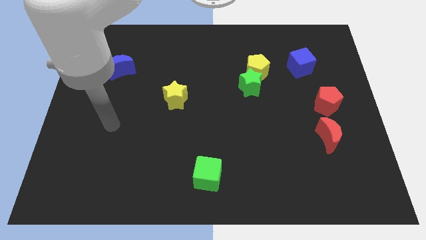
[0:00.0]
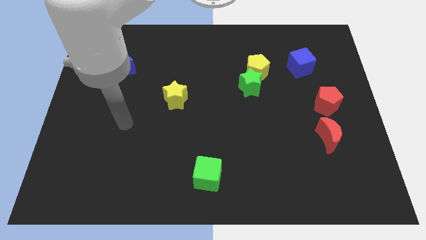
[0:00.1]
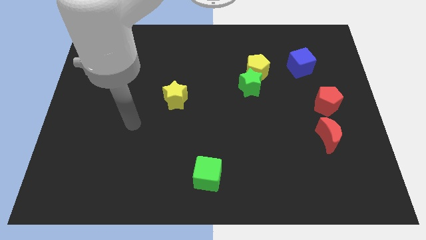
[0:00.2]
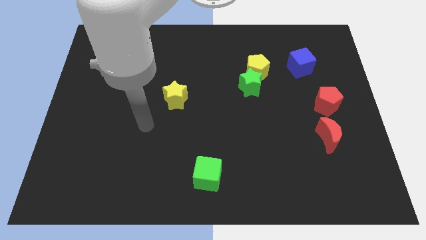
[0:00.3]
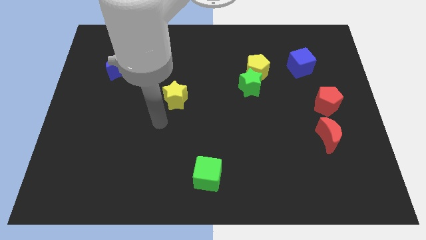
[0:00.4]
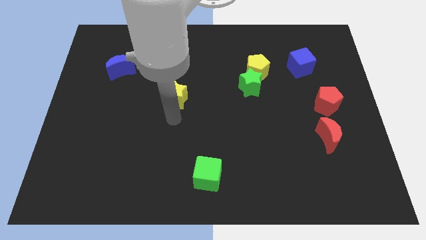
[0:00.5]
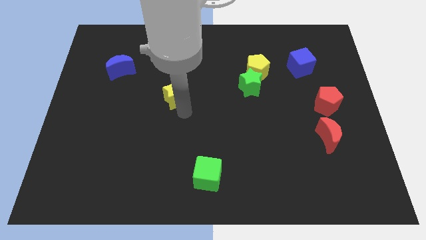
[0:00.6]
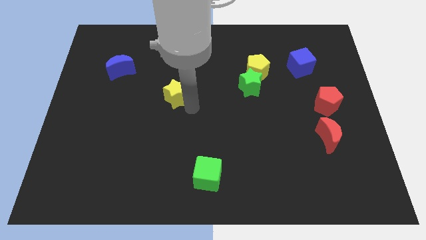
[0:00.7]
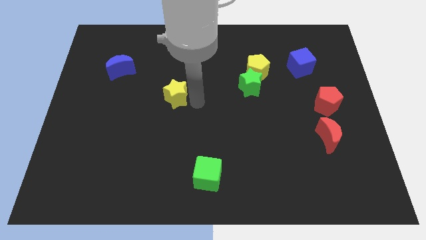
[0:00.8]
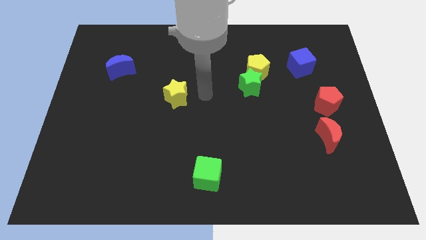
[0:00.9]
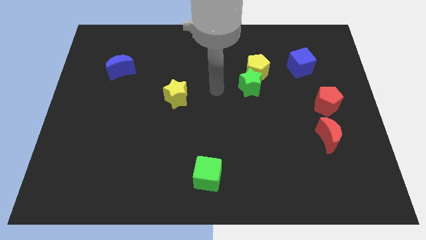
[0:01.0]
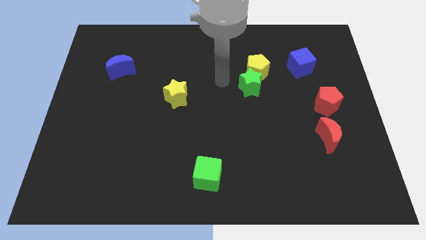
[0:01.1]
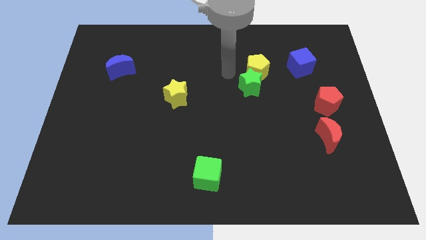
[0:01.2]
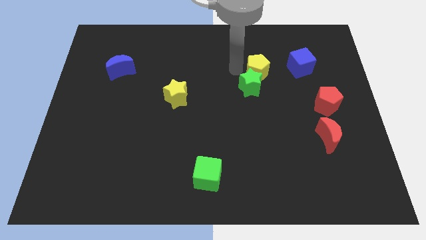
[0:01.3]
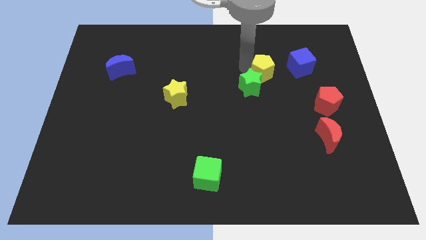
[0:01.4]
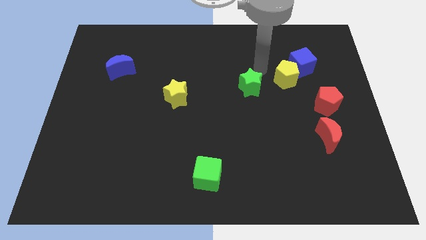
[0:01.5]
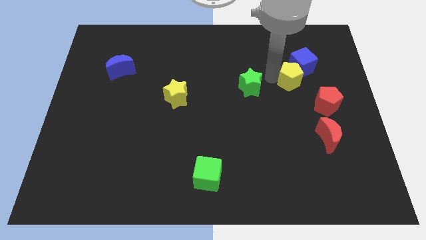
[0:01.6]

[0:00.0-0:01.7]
separate the green star from the yellow pentagon

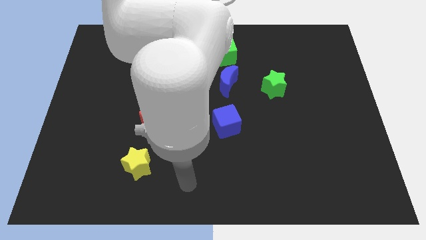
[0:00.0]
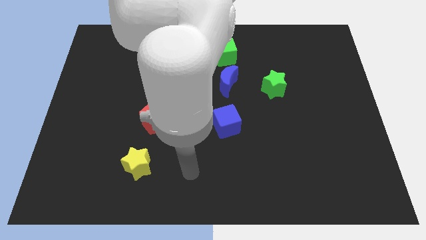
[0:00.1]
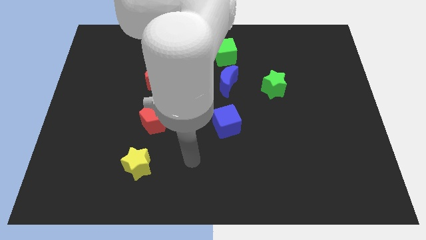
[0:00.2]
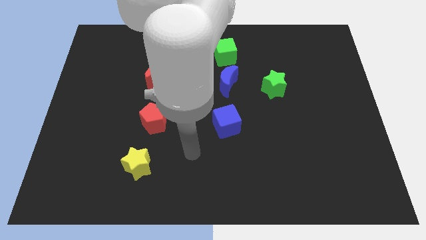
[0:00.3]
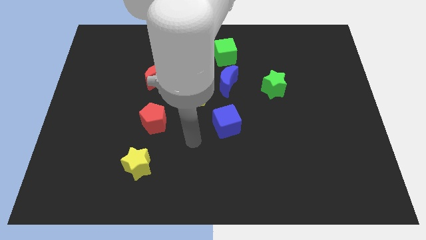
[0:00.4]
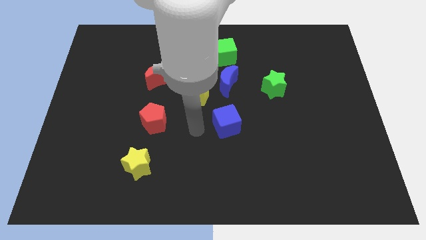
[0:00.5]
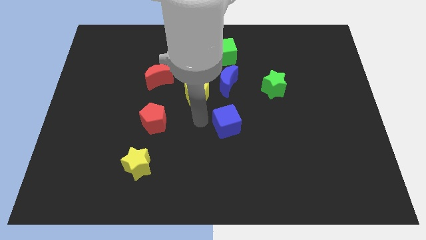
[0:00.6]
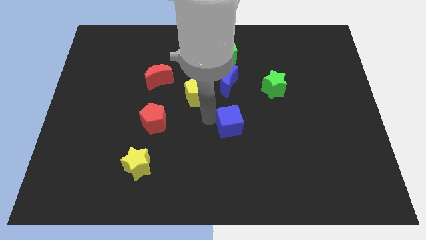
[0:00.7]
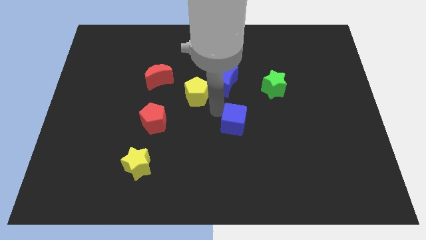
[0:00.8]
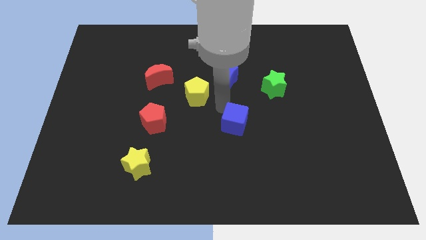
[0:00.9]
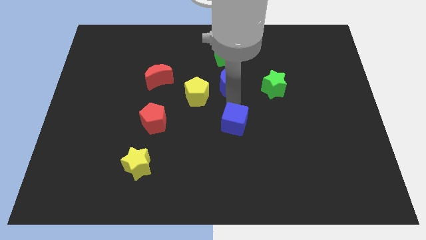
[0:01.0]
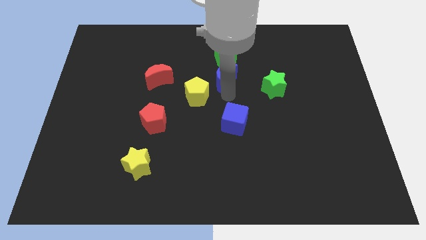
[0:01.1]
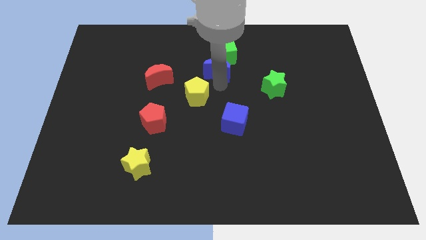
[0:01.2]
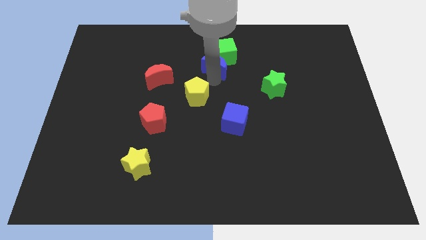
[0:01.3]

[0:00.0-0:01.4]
pull the yellow pentagon apart from the blue moon

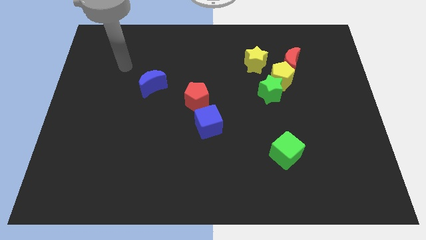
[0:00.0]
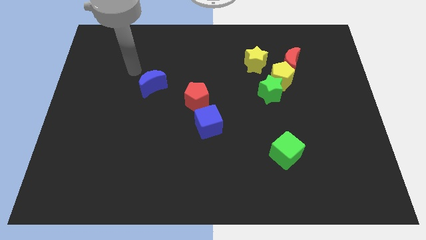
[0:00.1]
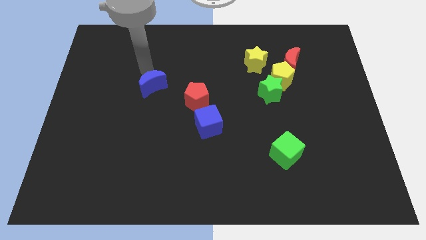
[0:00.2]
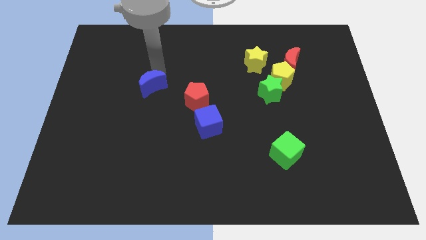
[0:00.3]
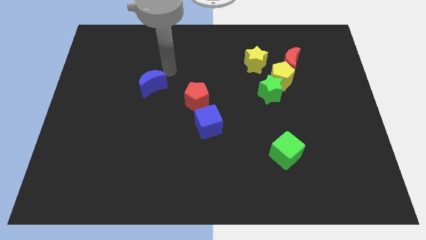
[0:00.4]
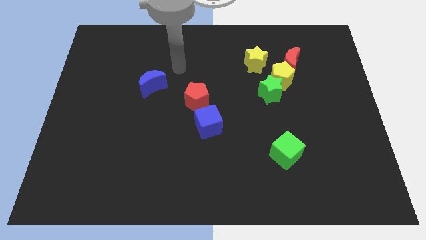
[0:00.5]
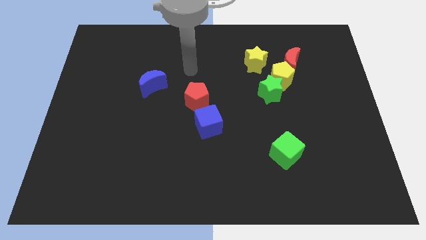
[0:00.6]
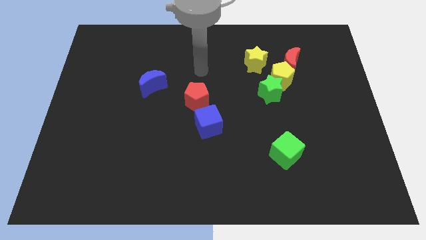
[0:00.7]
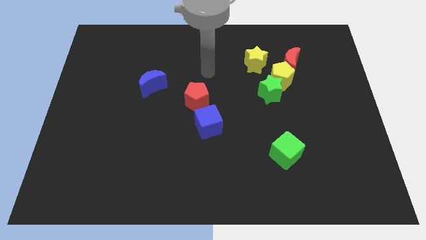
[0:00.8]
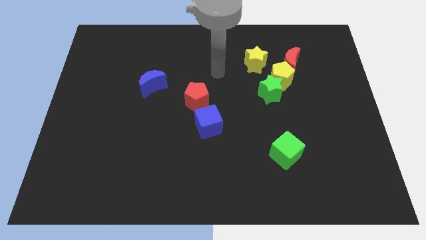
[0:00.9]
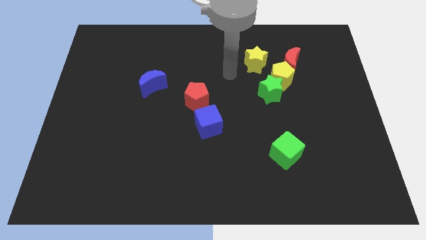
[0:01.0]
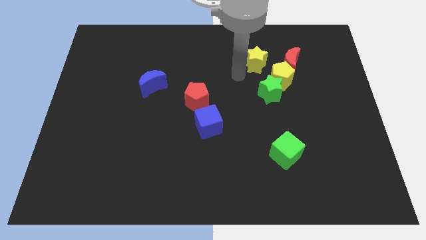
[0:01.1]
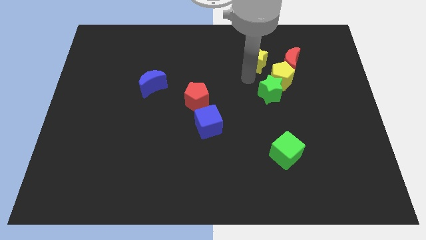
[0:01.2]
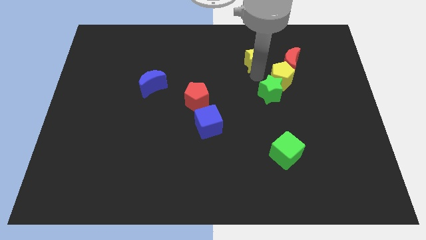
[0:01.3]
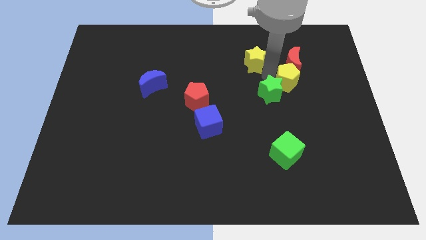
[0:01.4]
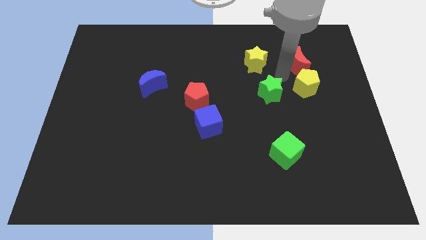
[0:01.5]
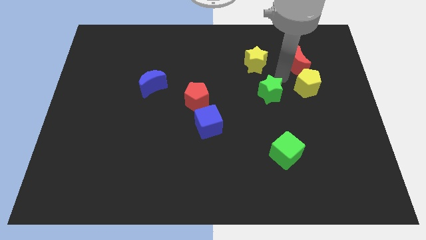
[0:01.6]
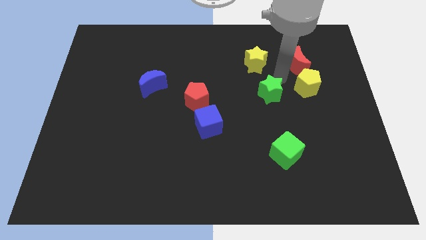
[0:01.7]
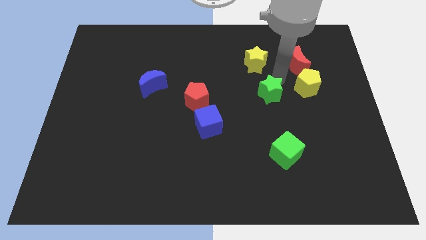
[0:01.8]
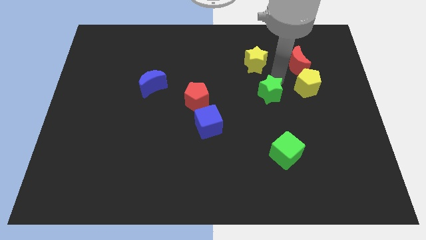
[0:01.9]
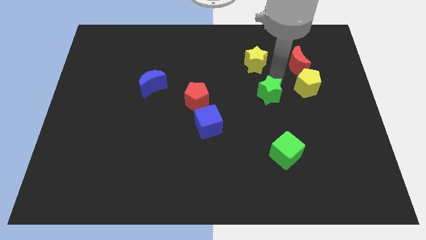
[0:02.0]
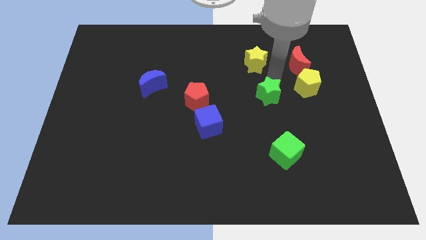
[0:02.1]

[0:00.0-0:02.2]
pull the green star apart from the yellow pentagon

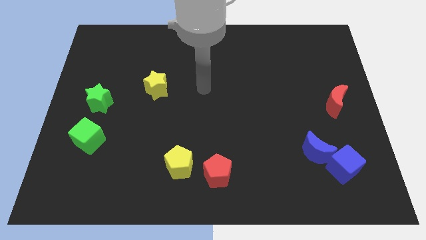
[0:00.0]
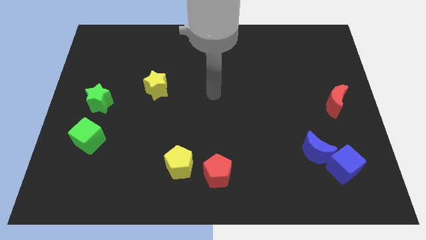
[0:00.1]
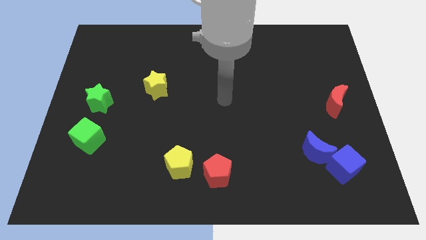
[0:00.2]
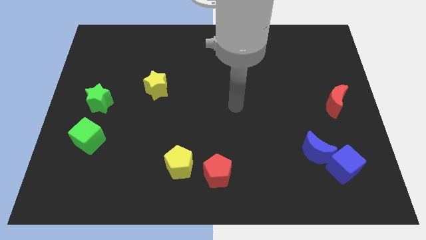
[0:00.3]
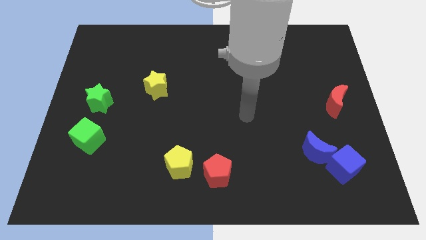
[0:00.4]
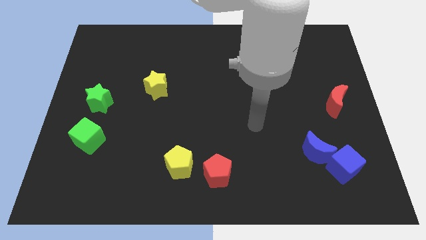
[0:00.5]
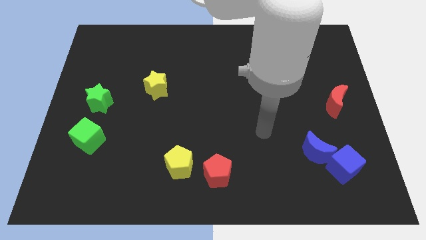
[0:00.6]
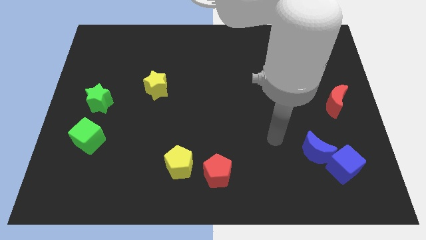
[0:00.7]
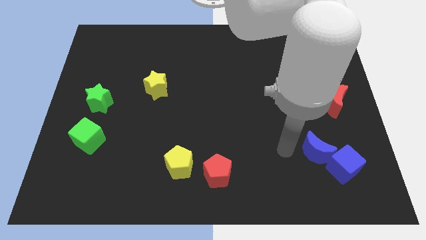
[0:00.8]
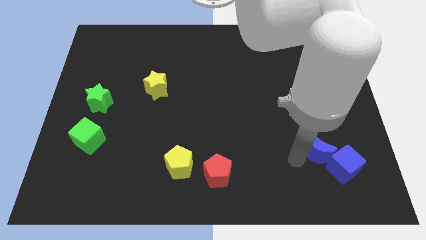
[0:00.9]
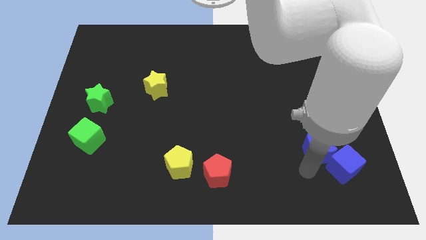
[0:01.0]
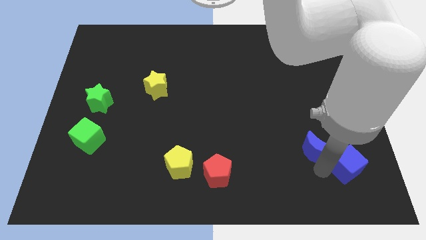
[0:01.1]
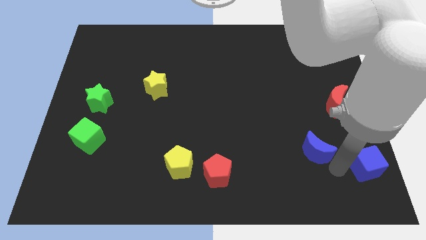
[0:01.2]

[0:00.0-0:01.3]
separate the blue moon from the blue cube

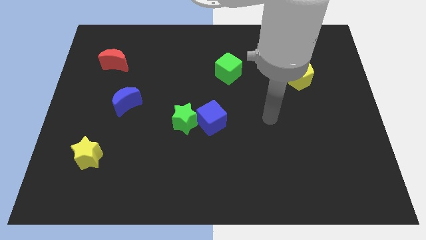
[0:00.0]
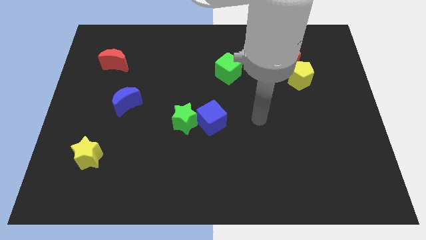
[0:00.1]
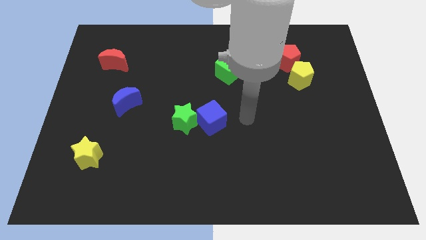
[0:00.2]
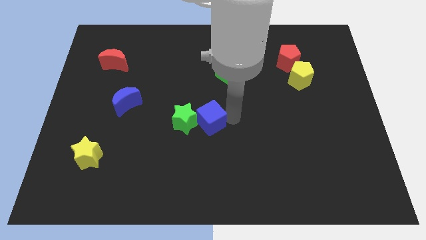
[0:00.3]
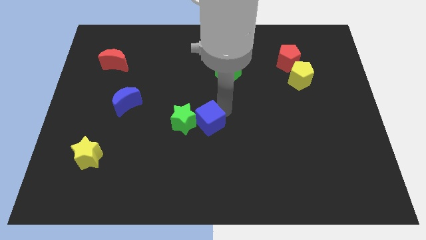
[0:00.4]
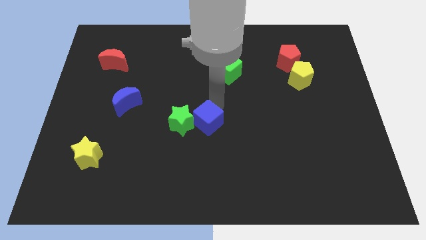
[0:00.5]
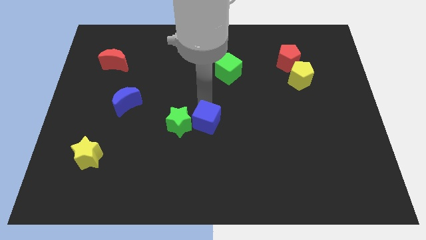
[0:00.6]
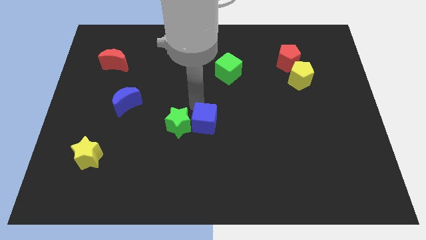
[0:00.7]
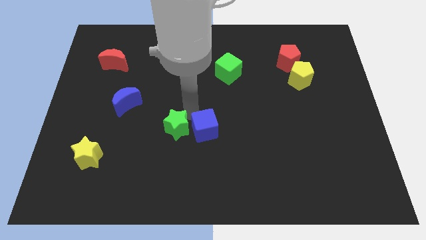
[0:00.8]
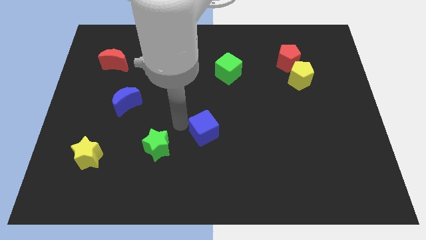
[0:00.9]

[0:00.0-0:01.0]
move the blue cube away from the green star

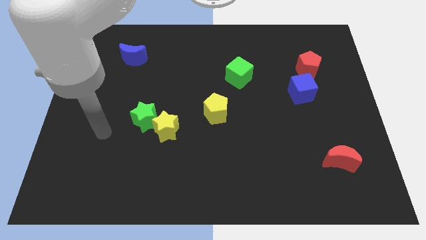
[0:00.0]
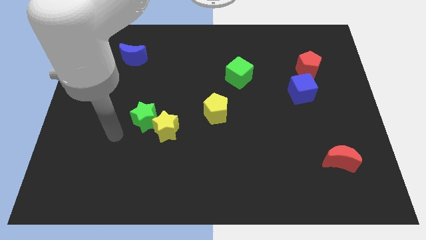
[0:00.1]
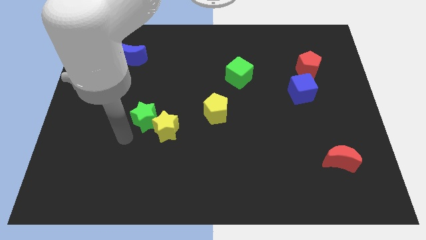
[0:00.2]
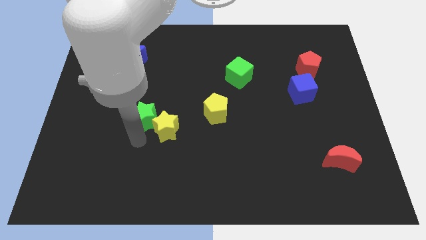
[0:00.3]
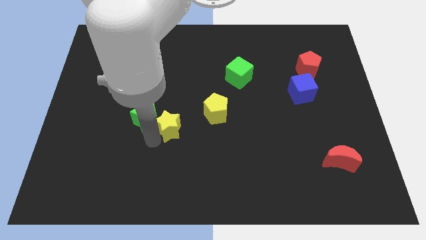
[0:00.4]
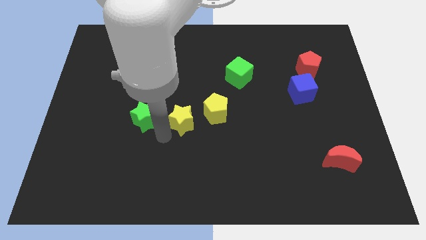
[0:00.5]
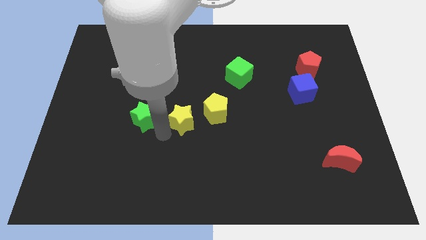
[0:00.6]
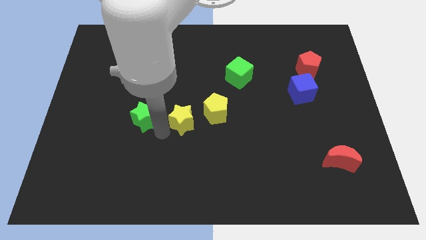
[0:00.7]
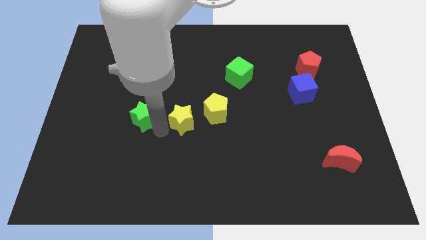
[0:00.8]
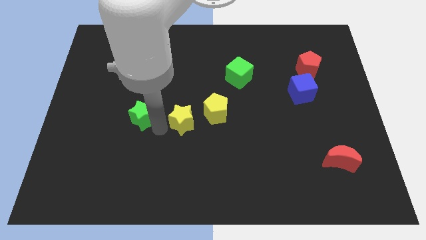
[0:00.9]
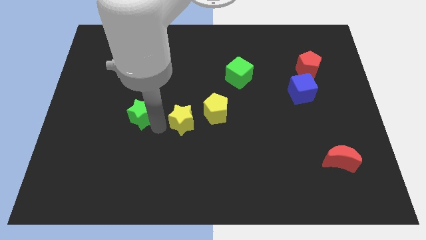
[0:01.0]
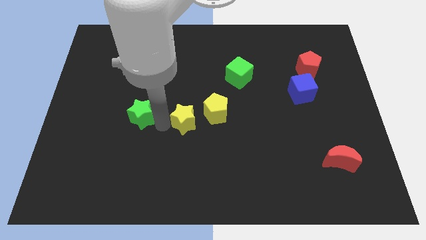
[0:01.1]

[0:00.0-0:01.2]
separate the green star from the yellow star

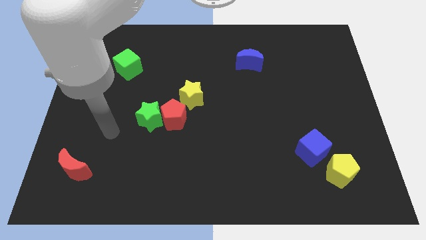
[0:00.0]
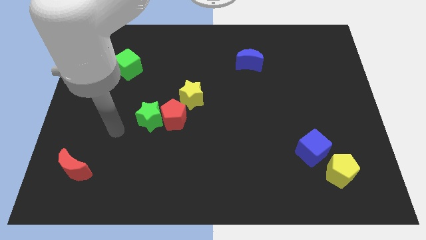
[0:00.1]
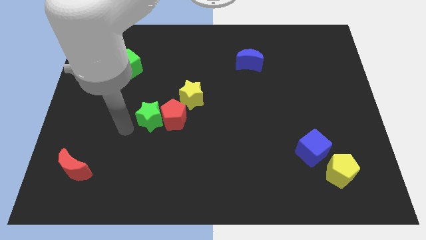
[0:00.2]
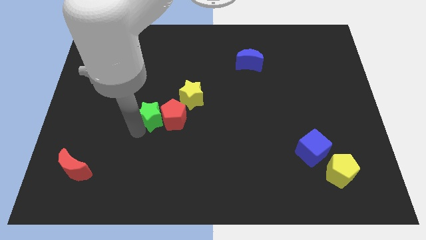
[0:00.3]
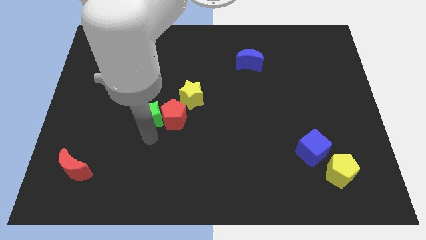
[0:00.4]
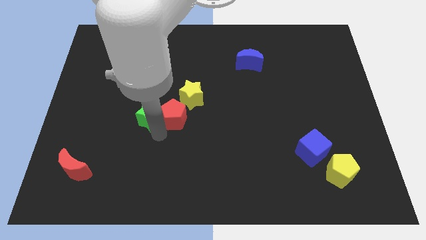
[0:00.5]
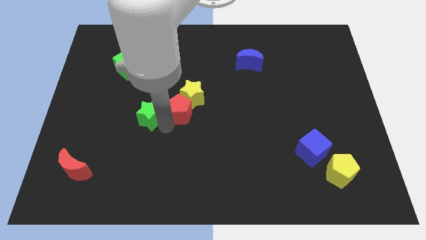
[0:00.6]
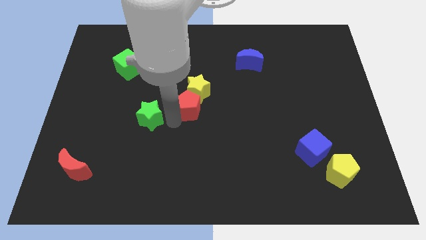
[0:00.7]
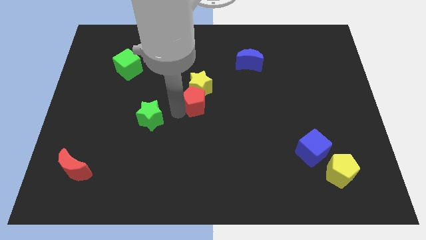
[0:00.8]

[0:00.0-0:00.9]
separate the green star from the red pentagon
